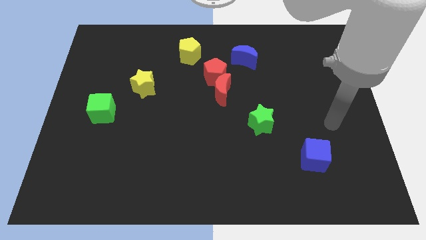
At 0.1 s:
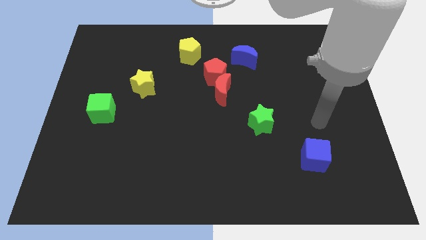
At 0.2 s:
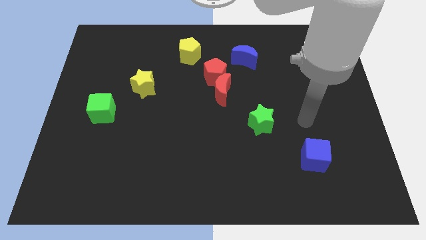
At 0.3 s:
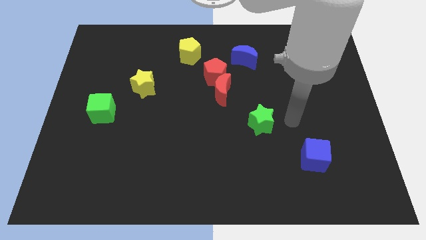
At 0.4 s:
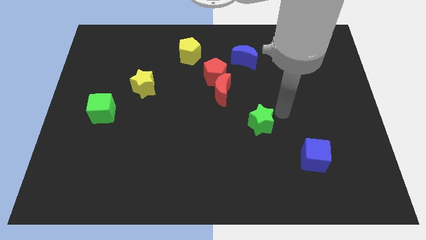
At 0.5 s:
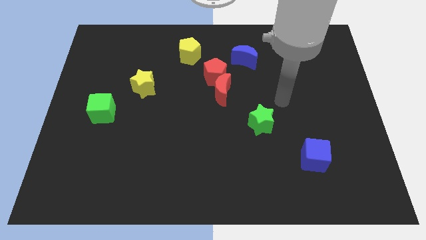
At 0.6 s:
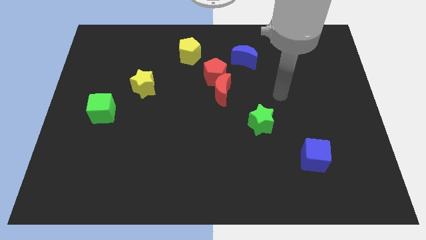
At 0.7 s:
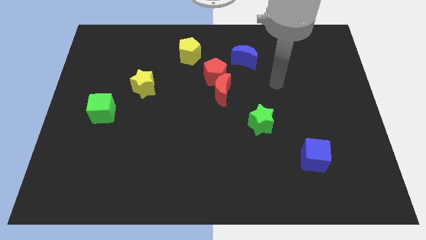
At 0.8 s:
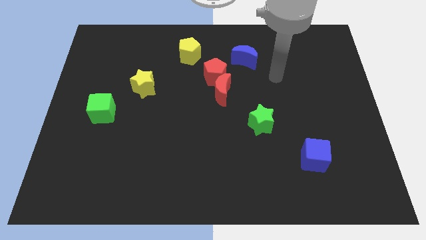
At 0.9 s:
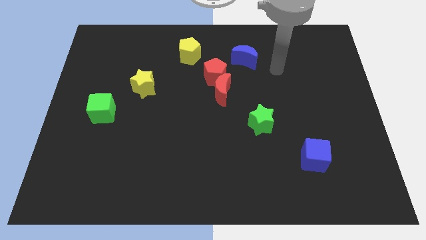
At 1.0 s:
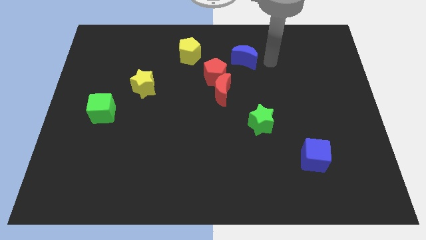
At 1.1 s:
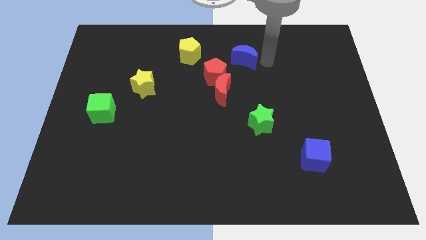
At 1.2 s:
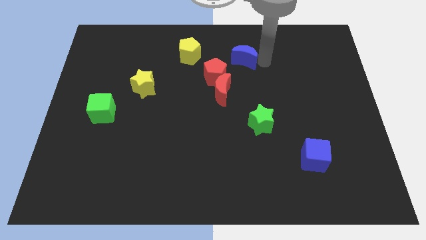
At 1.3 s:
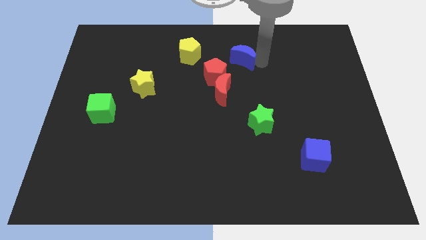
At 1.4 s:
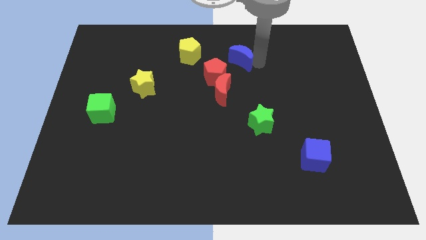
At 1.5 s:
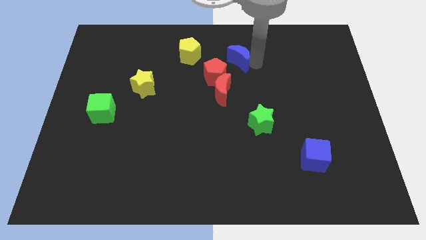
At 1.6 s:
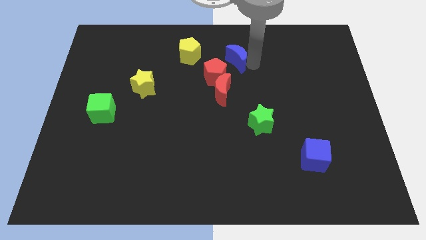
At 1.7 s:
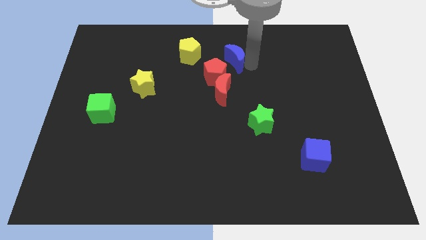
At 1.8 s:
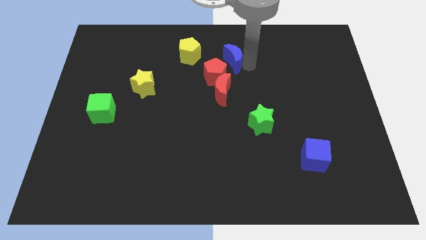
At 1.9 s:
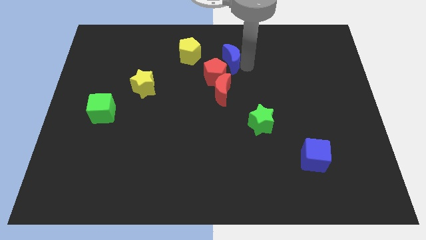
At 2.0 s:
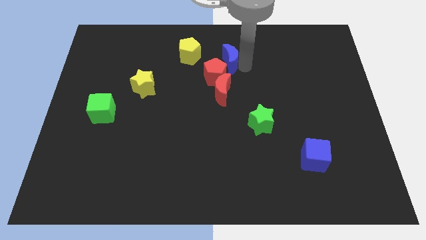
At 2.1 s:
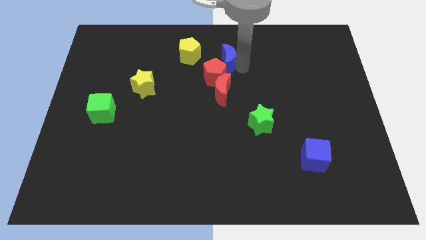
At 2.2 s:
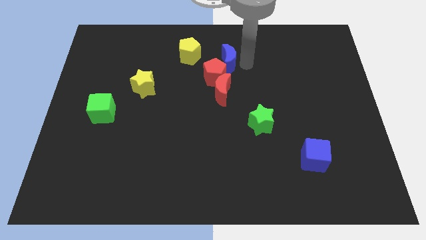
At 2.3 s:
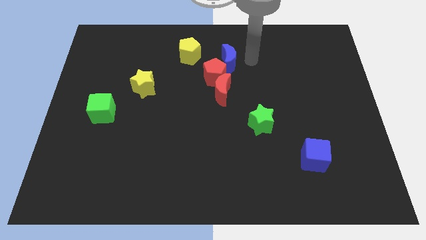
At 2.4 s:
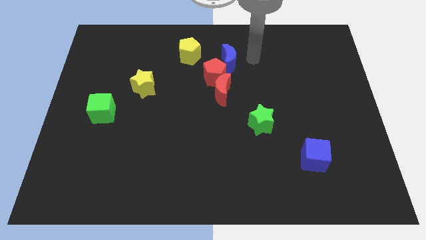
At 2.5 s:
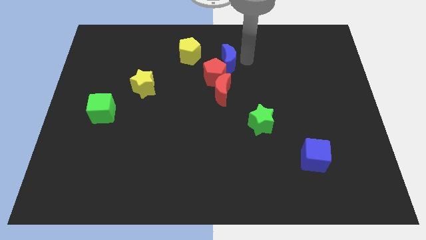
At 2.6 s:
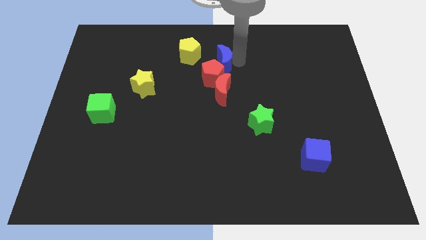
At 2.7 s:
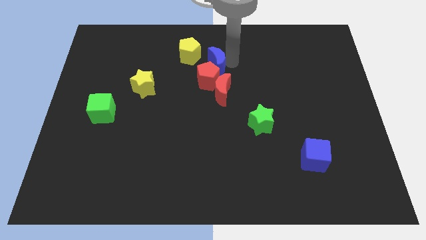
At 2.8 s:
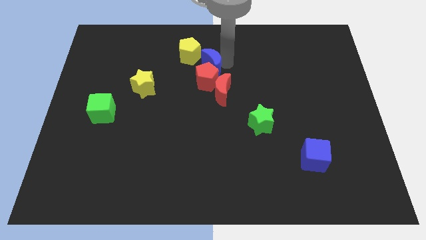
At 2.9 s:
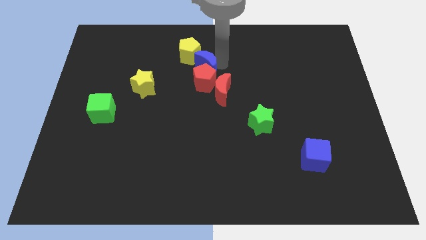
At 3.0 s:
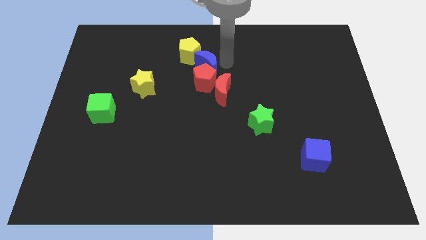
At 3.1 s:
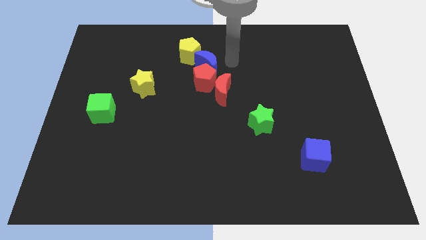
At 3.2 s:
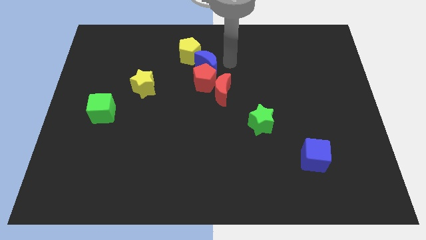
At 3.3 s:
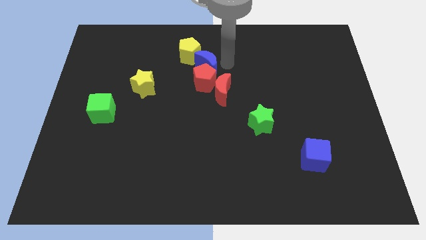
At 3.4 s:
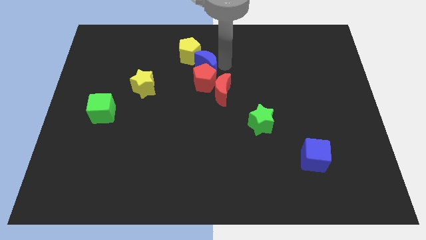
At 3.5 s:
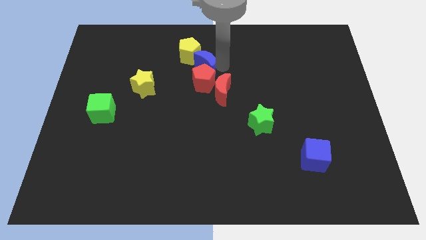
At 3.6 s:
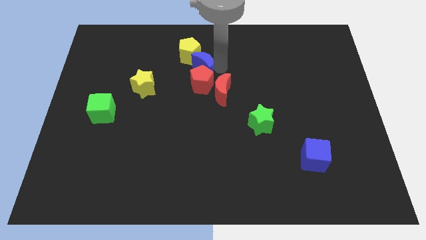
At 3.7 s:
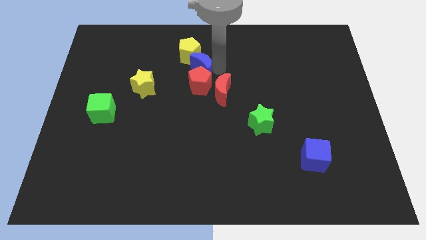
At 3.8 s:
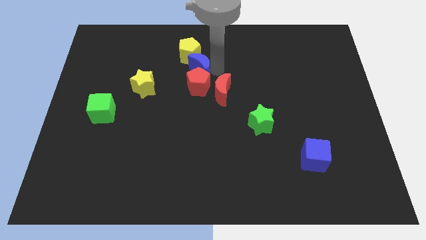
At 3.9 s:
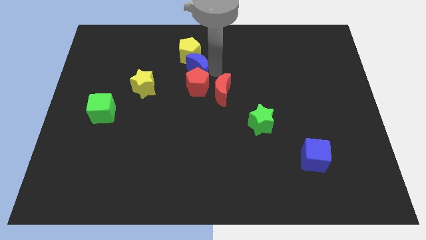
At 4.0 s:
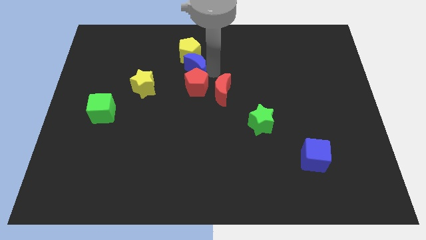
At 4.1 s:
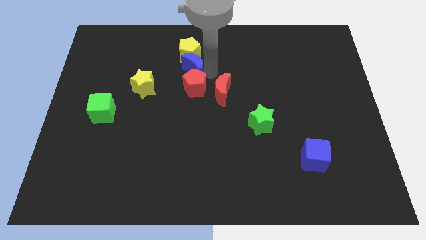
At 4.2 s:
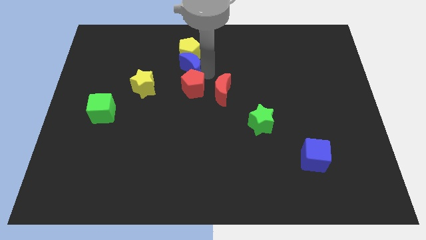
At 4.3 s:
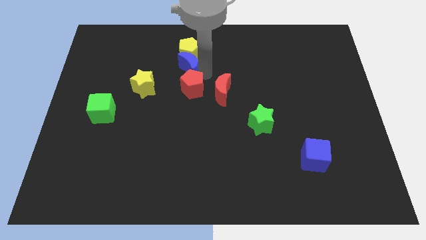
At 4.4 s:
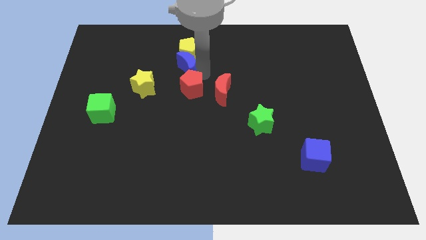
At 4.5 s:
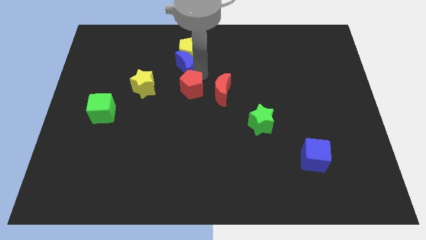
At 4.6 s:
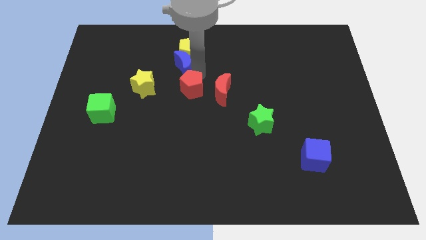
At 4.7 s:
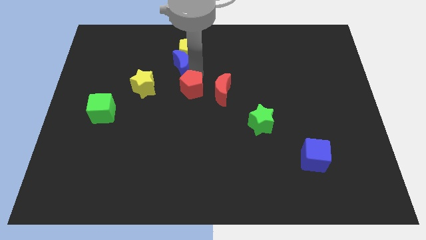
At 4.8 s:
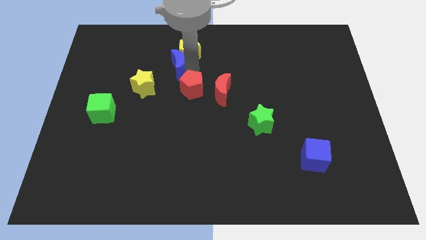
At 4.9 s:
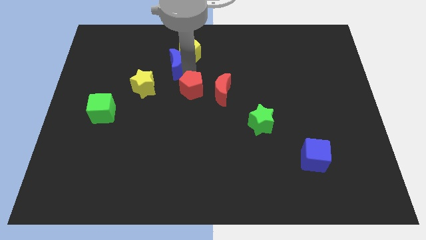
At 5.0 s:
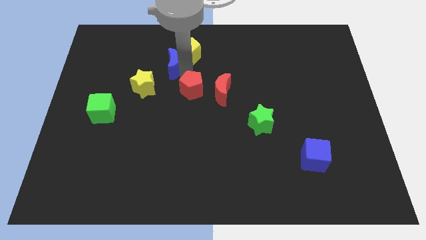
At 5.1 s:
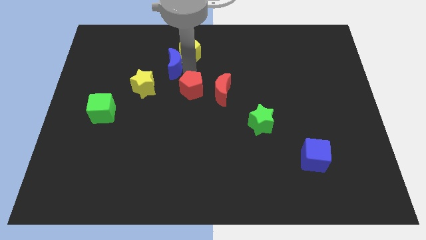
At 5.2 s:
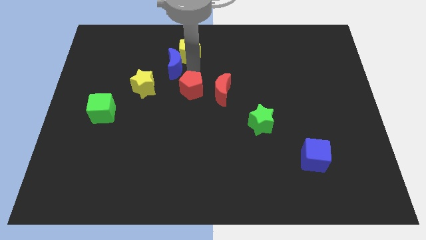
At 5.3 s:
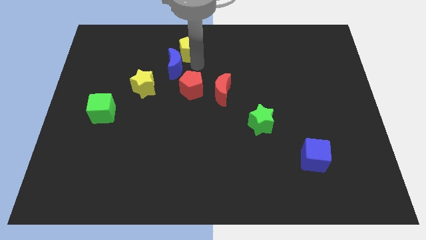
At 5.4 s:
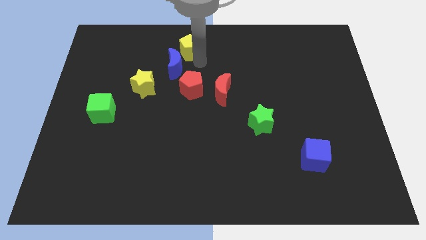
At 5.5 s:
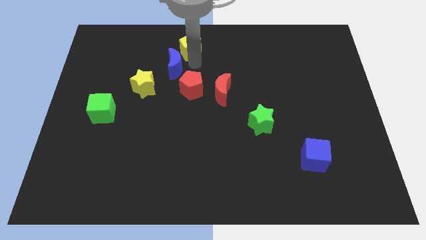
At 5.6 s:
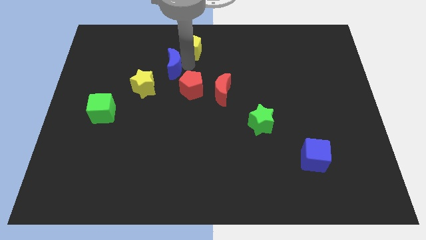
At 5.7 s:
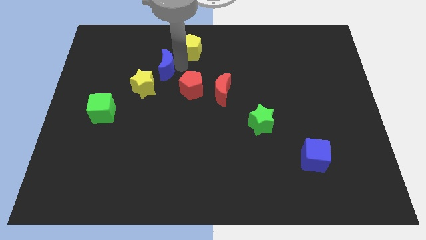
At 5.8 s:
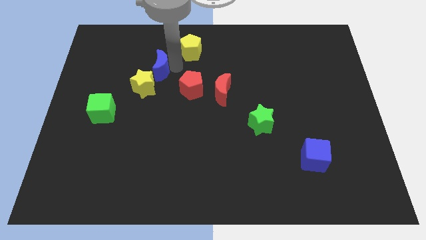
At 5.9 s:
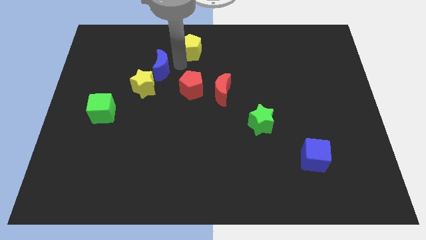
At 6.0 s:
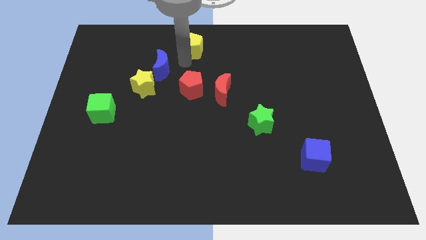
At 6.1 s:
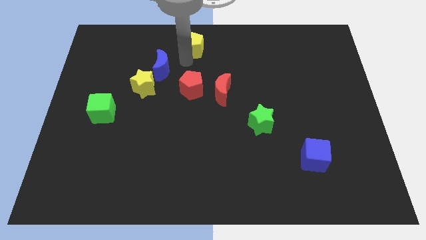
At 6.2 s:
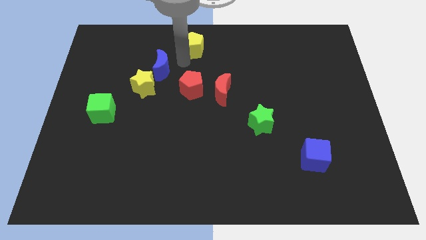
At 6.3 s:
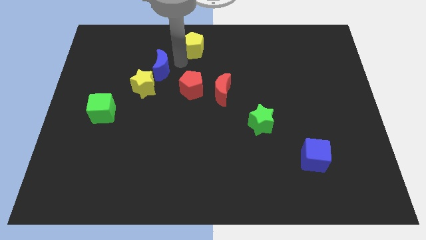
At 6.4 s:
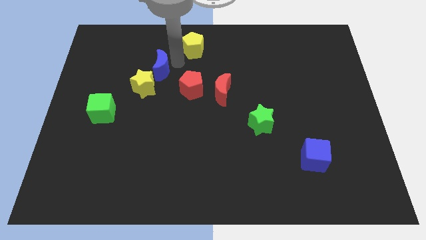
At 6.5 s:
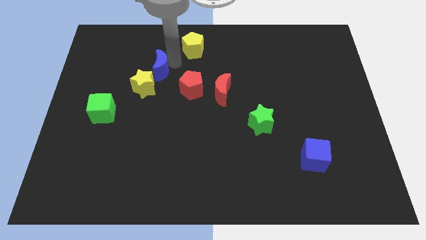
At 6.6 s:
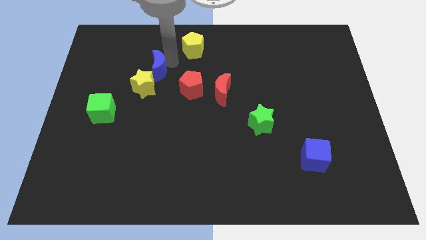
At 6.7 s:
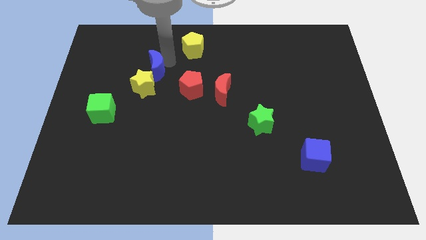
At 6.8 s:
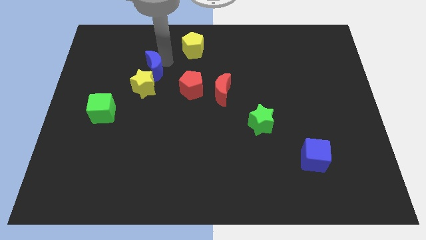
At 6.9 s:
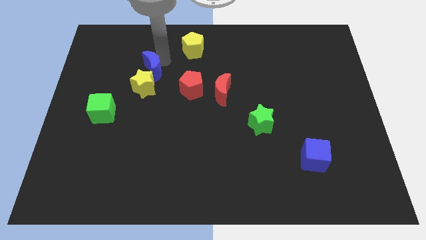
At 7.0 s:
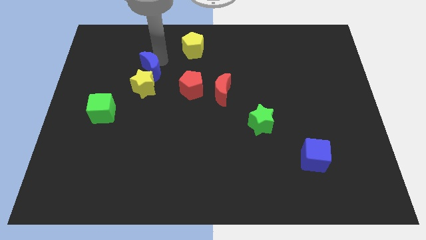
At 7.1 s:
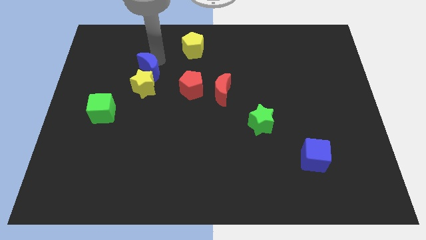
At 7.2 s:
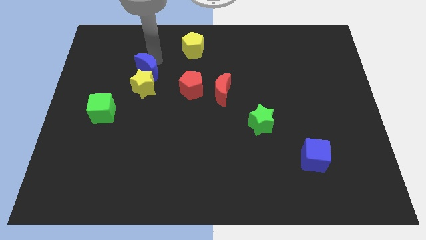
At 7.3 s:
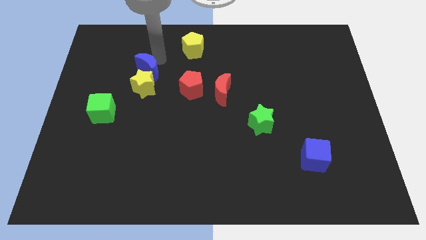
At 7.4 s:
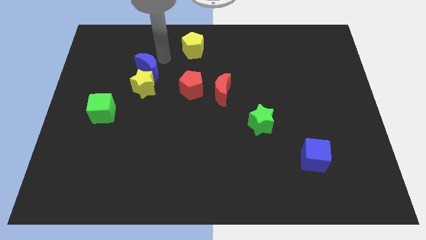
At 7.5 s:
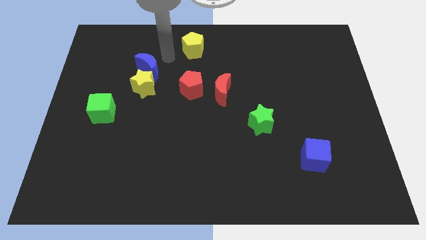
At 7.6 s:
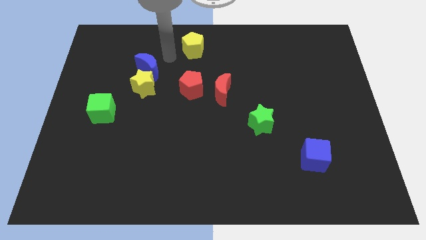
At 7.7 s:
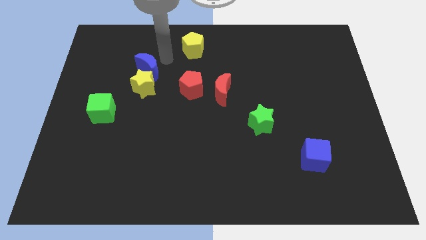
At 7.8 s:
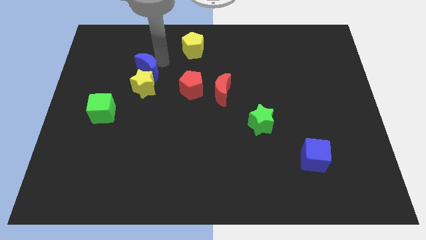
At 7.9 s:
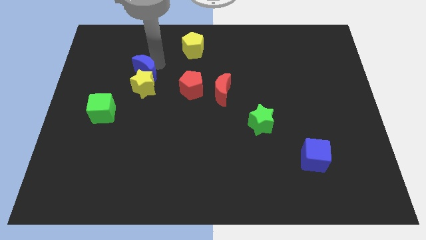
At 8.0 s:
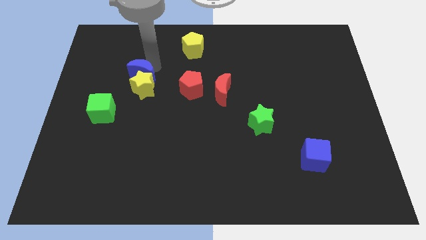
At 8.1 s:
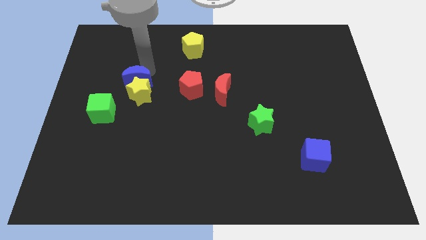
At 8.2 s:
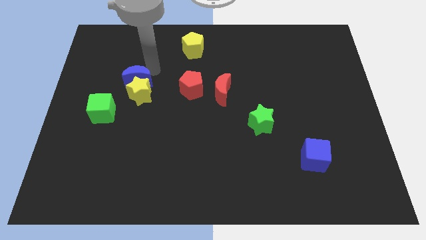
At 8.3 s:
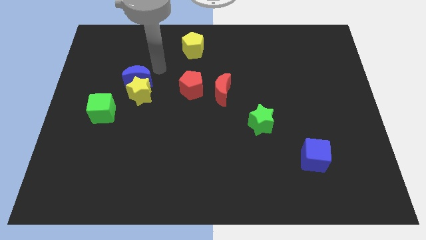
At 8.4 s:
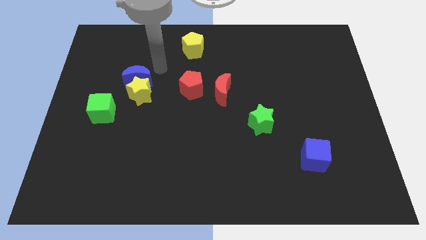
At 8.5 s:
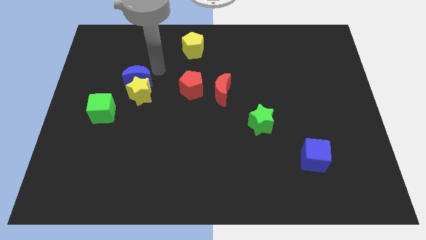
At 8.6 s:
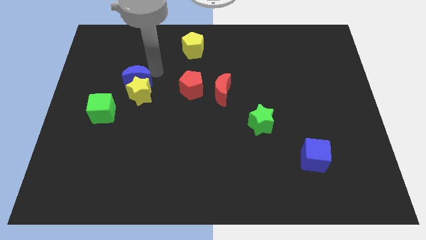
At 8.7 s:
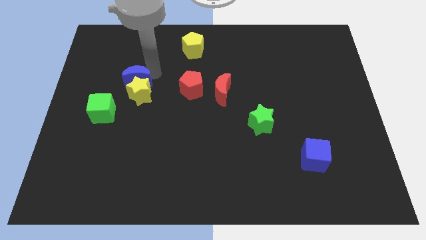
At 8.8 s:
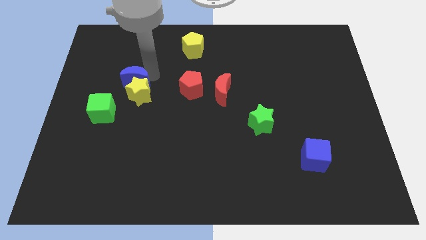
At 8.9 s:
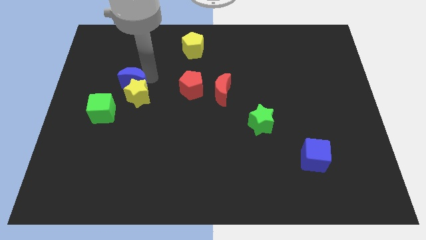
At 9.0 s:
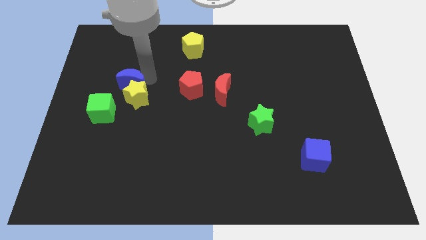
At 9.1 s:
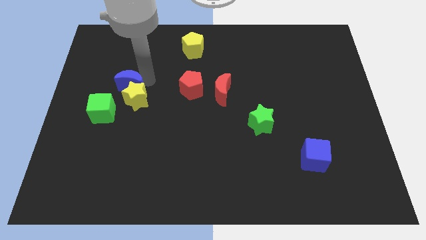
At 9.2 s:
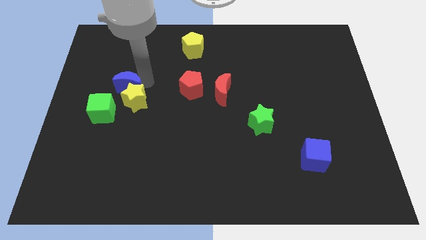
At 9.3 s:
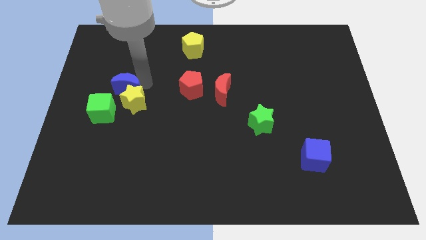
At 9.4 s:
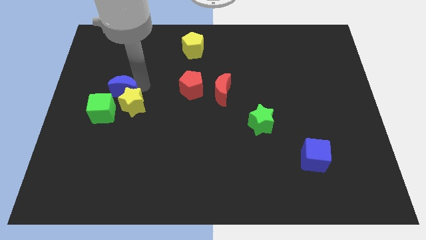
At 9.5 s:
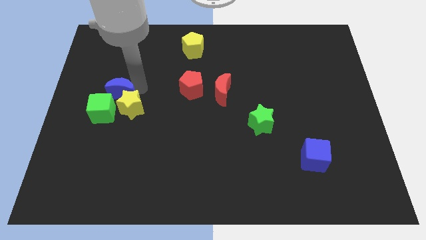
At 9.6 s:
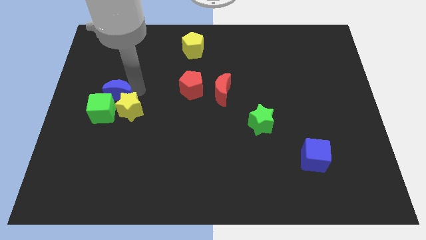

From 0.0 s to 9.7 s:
slide the blue moon to the green cube
